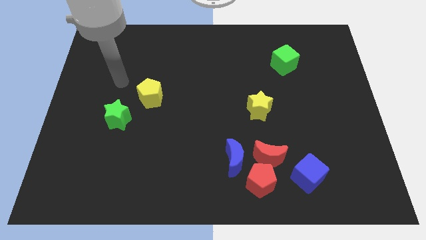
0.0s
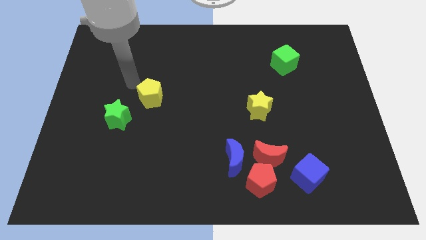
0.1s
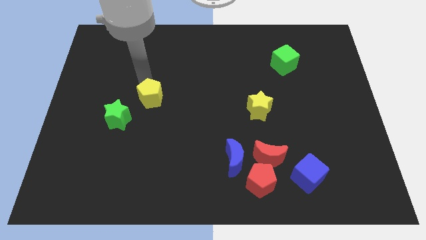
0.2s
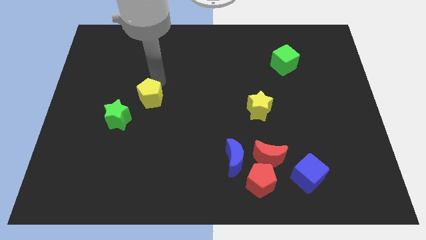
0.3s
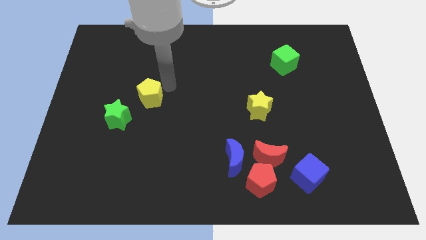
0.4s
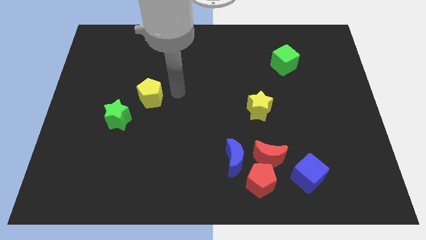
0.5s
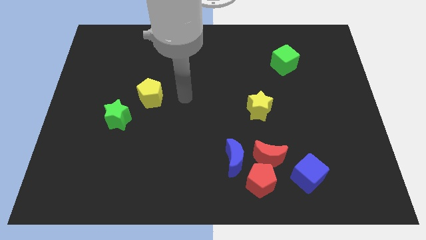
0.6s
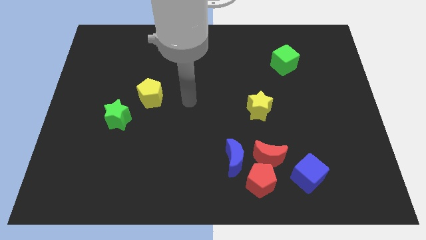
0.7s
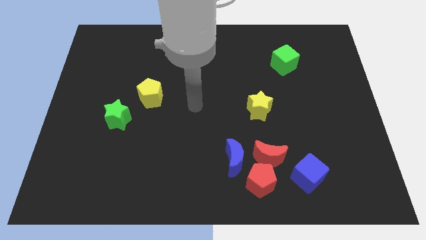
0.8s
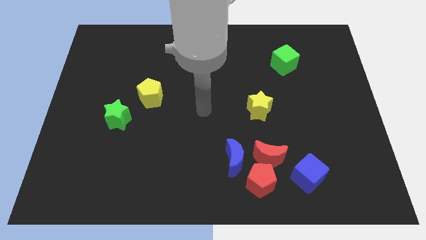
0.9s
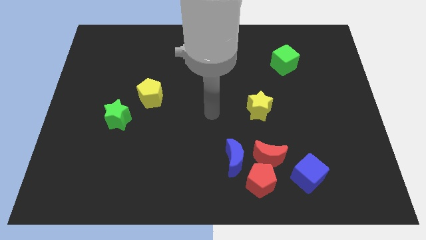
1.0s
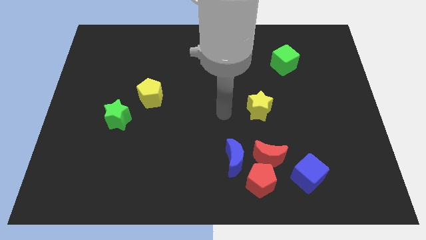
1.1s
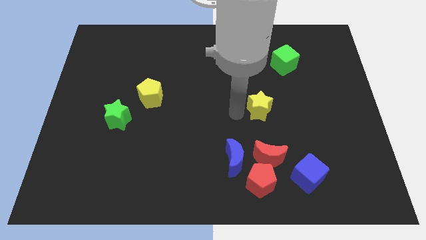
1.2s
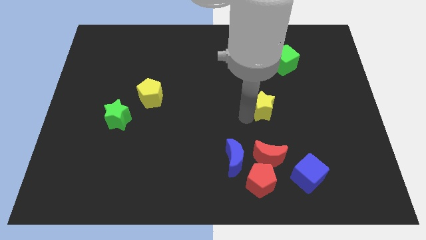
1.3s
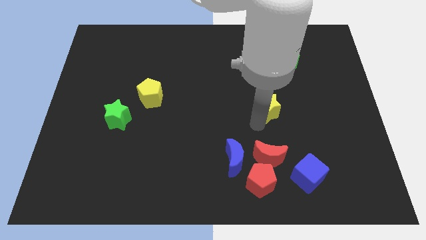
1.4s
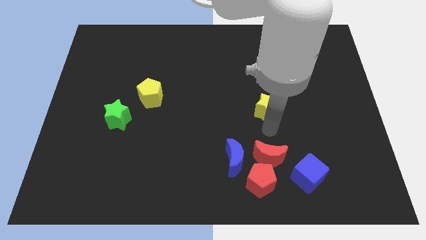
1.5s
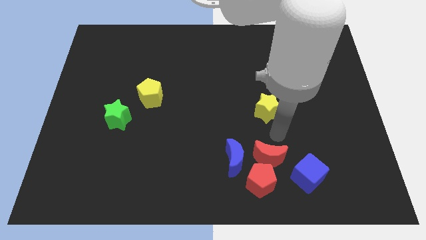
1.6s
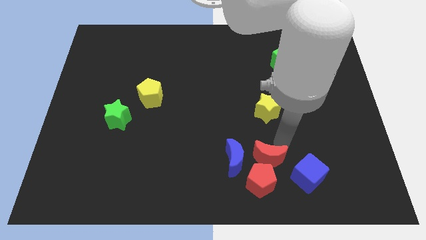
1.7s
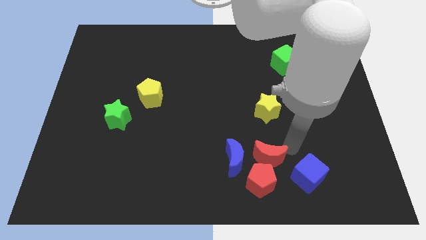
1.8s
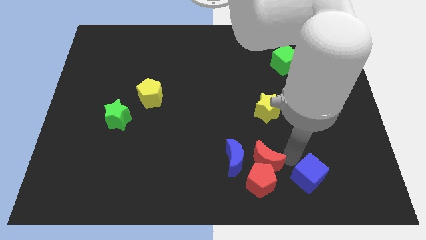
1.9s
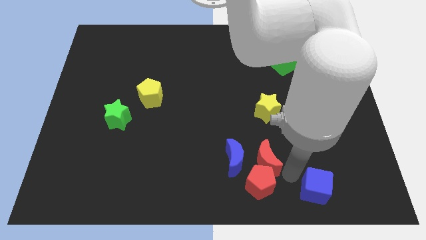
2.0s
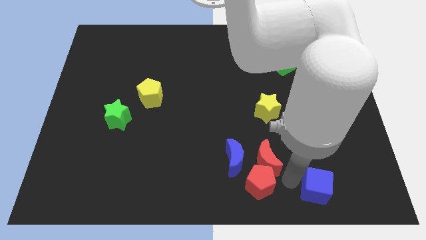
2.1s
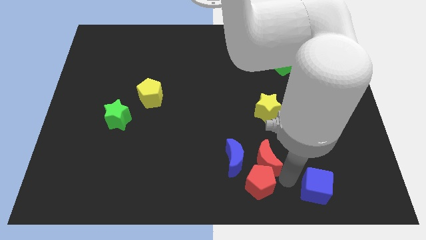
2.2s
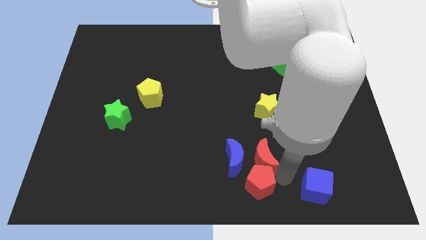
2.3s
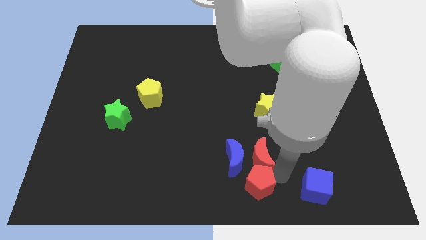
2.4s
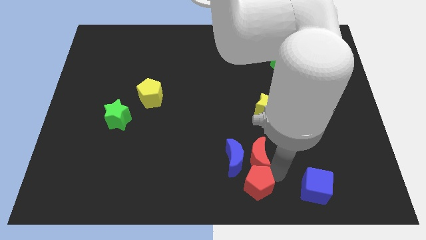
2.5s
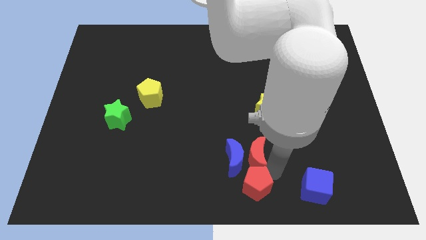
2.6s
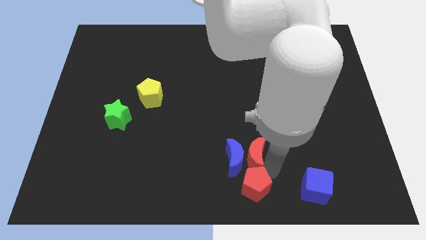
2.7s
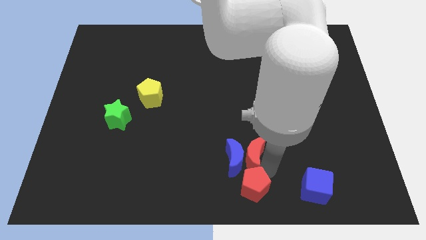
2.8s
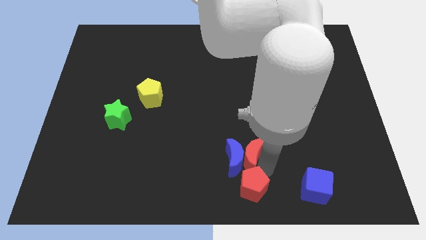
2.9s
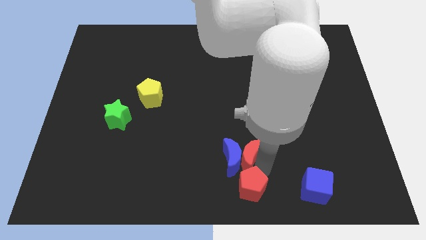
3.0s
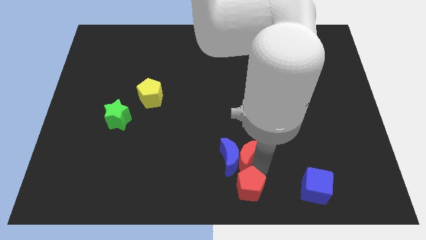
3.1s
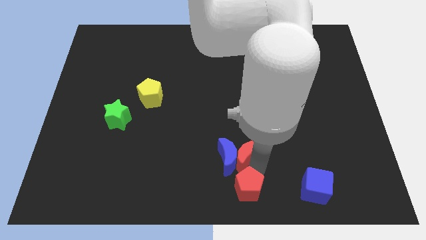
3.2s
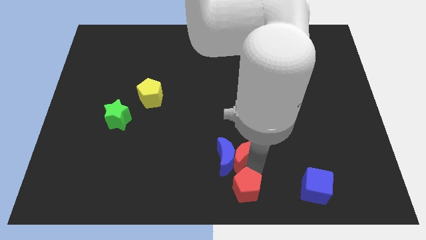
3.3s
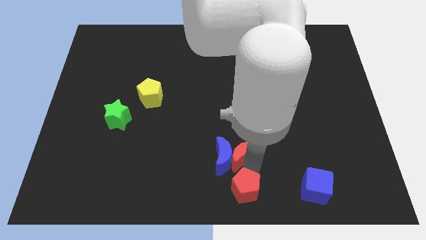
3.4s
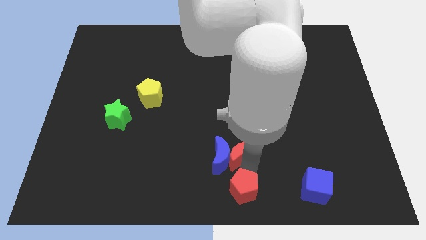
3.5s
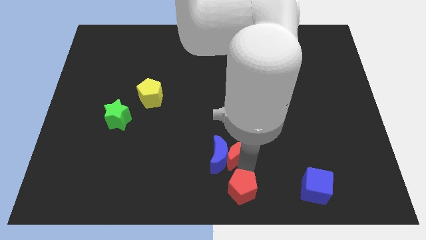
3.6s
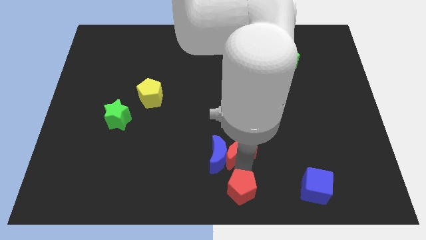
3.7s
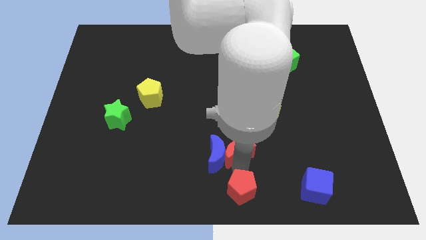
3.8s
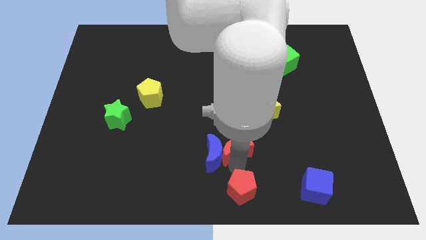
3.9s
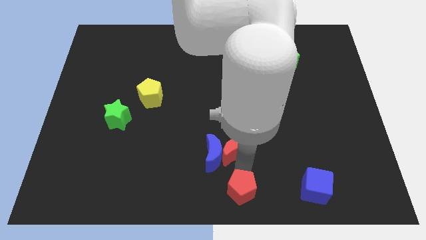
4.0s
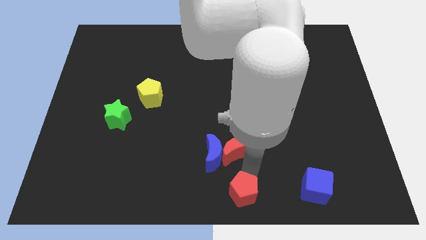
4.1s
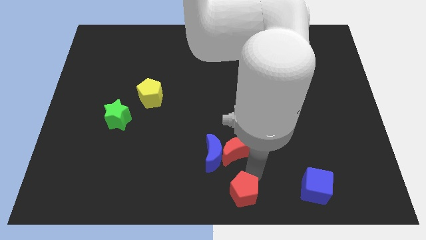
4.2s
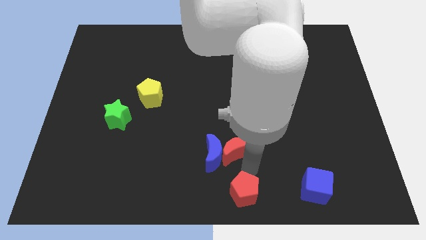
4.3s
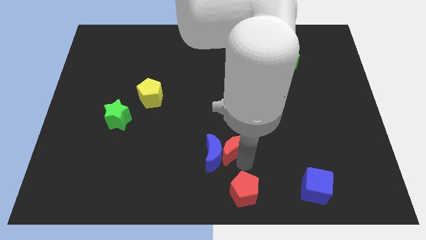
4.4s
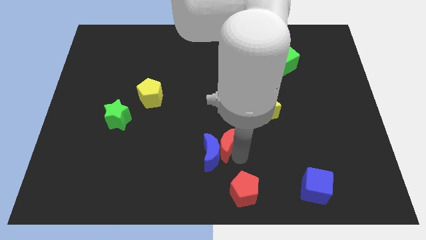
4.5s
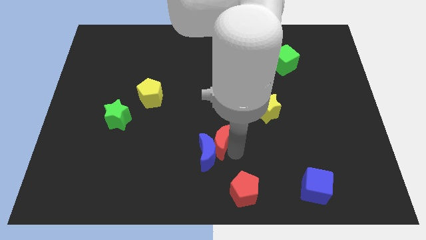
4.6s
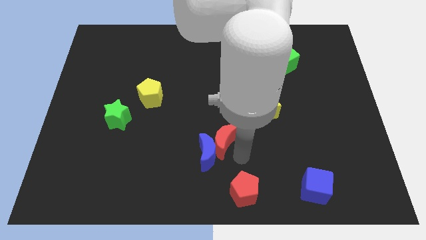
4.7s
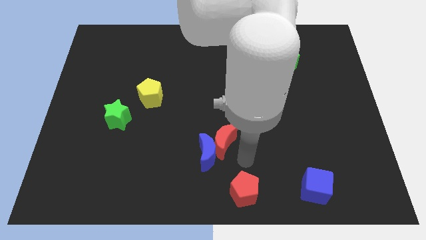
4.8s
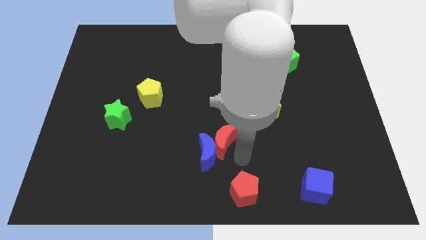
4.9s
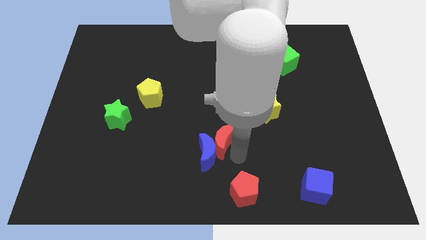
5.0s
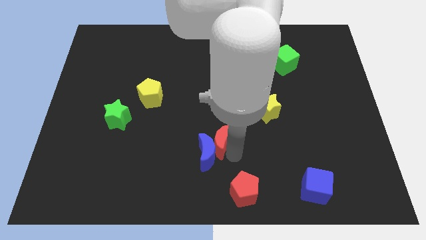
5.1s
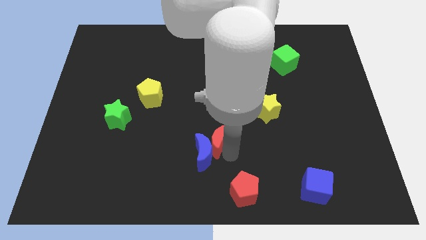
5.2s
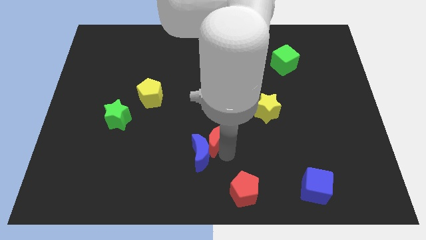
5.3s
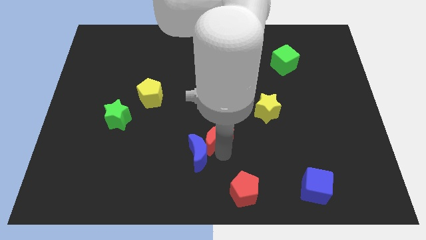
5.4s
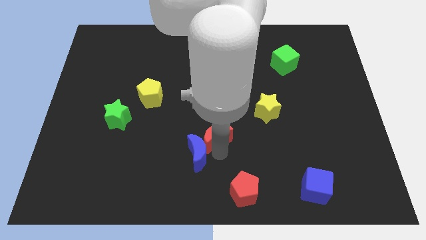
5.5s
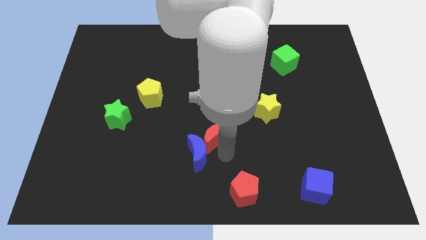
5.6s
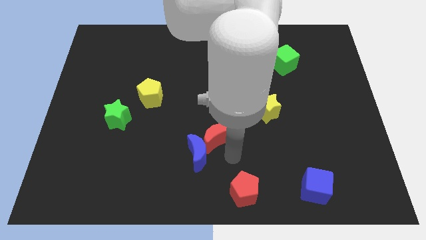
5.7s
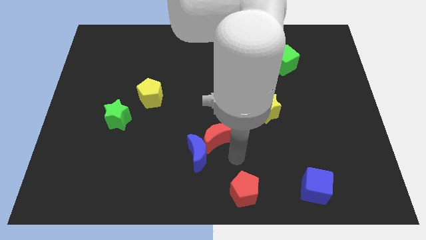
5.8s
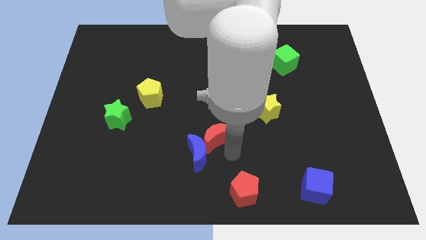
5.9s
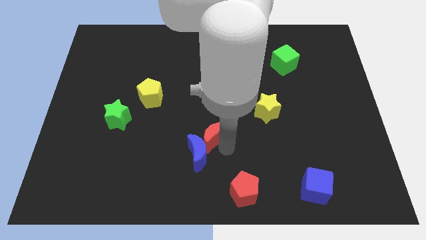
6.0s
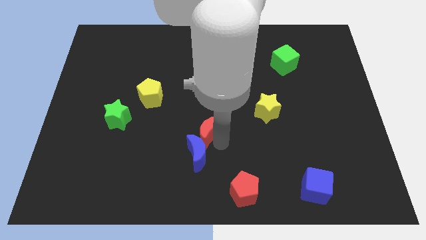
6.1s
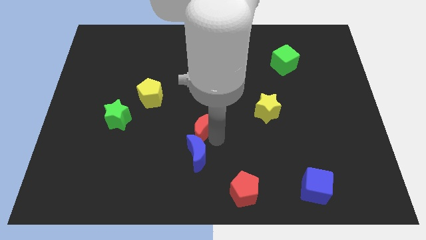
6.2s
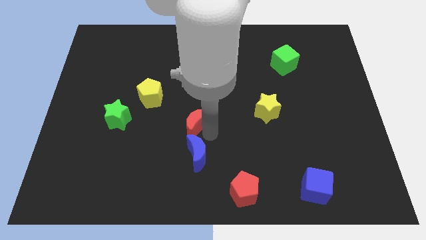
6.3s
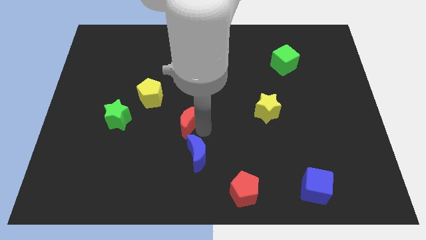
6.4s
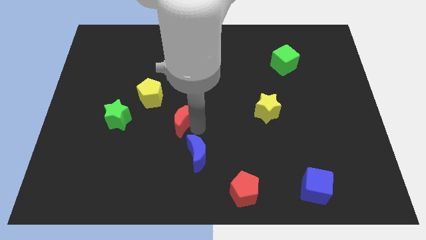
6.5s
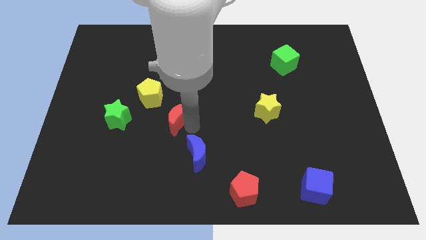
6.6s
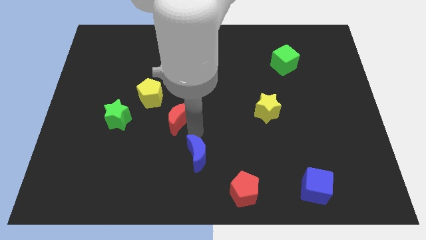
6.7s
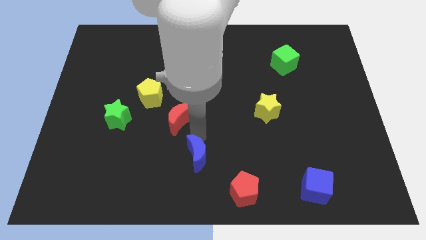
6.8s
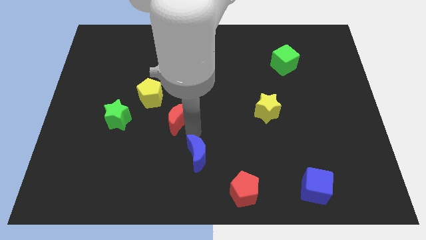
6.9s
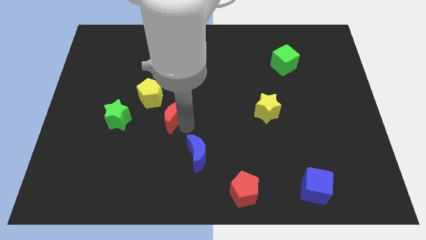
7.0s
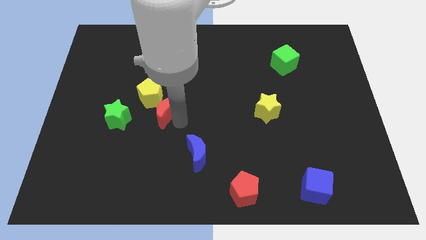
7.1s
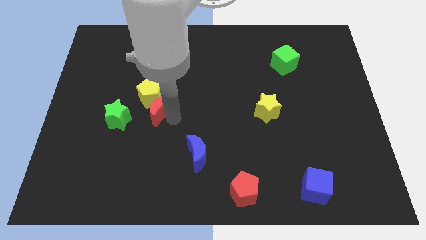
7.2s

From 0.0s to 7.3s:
move the red moon to the yellow pentagon

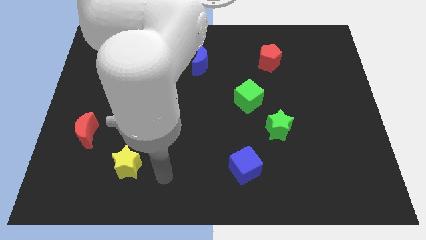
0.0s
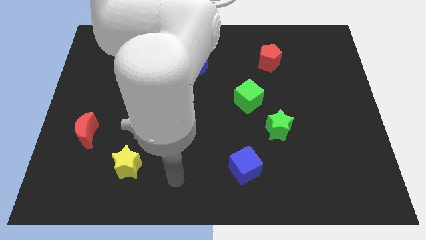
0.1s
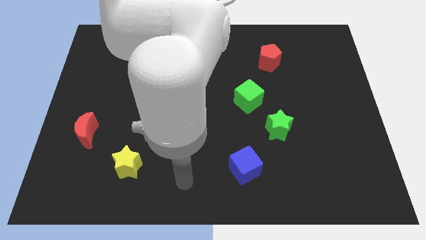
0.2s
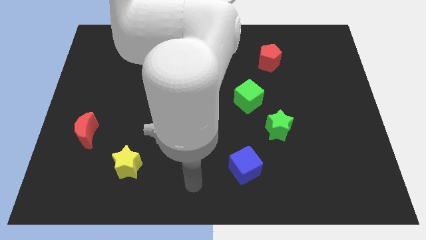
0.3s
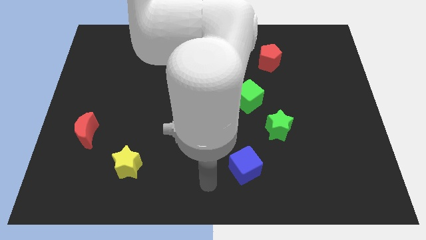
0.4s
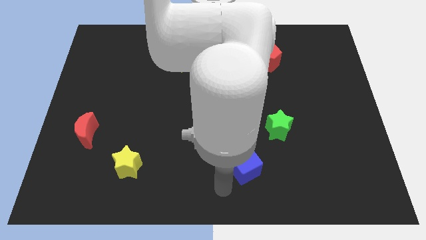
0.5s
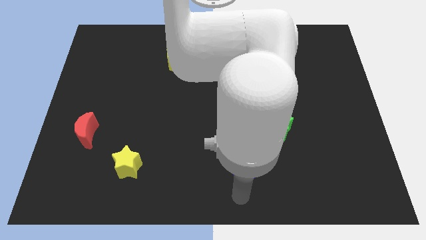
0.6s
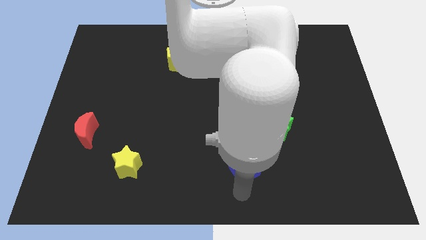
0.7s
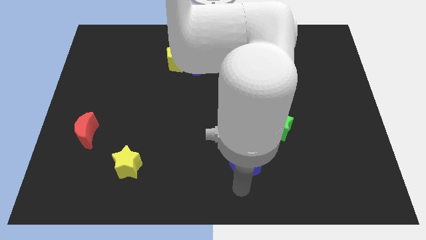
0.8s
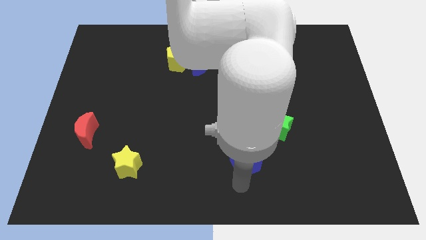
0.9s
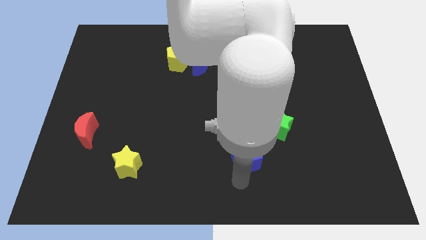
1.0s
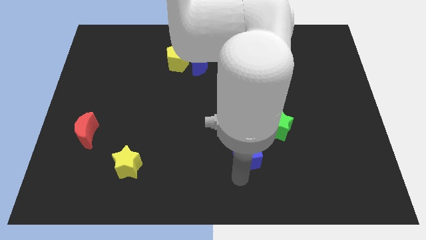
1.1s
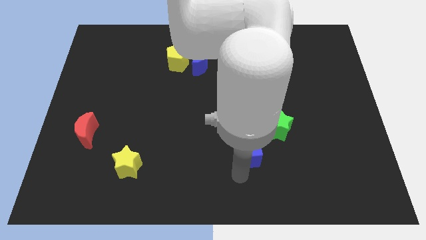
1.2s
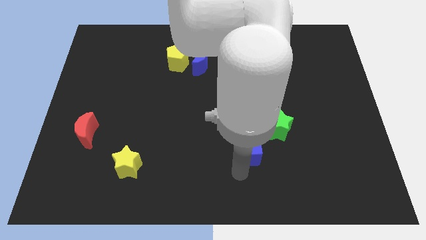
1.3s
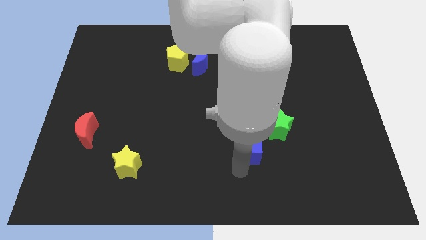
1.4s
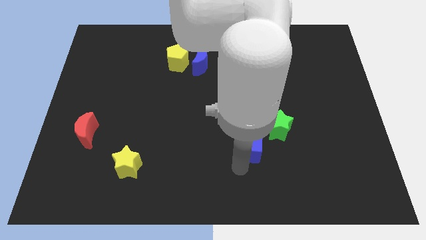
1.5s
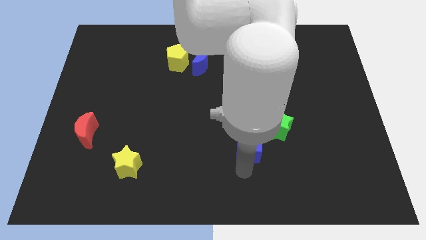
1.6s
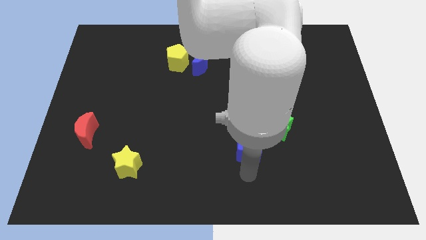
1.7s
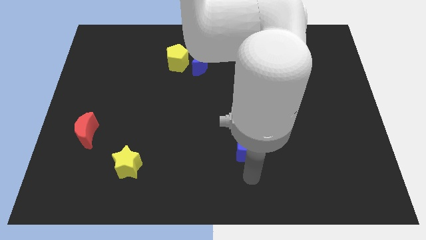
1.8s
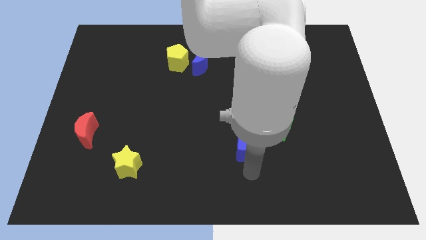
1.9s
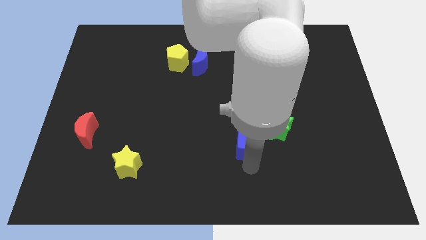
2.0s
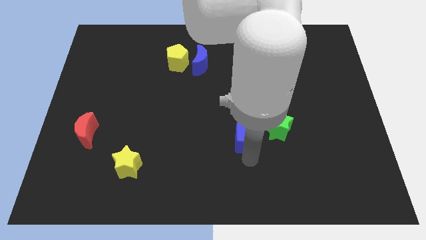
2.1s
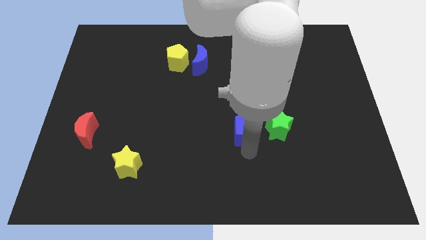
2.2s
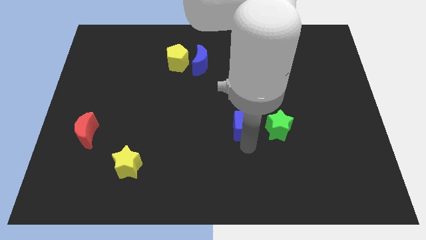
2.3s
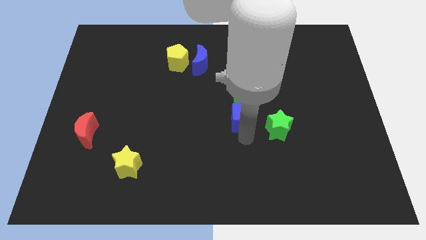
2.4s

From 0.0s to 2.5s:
slide the blue cube close to the green cube
